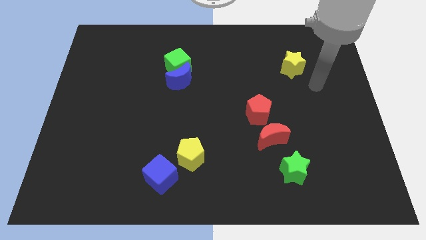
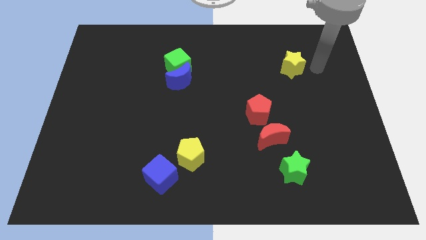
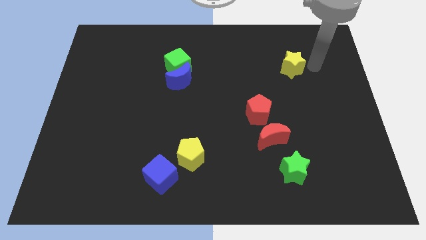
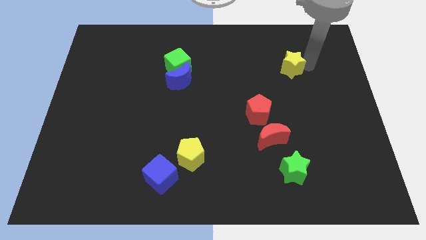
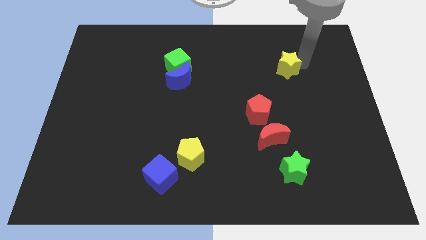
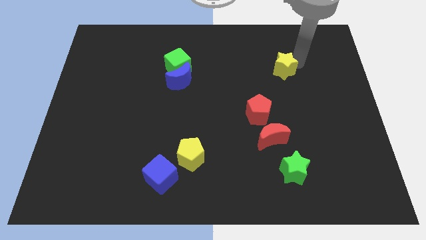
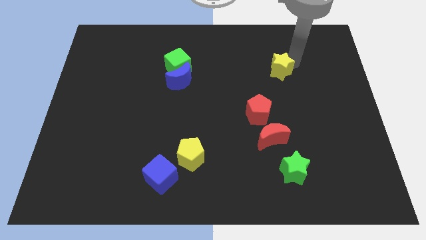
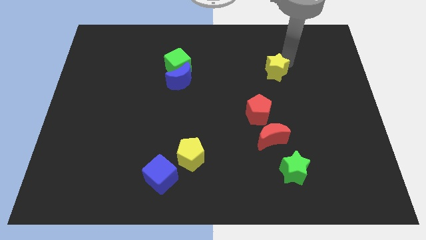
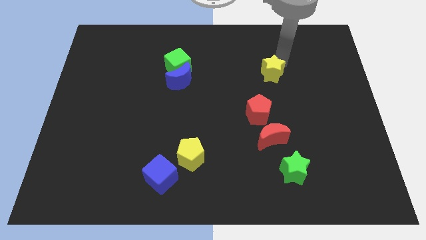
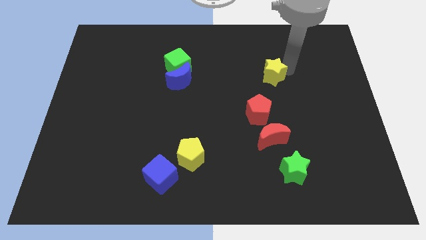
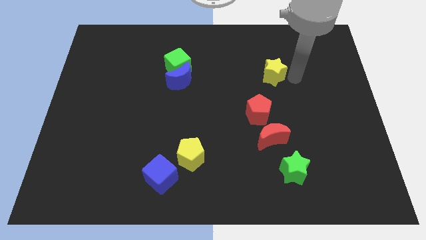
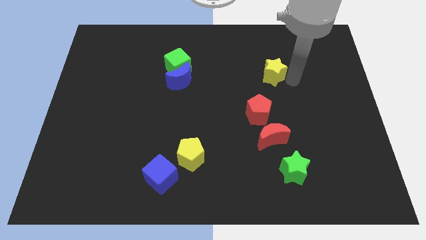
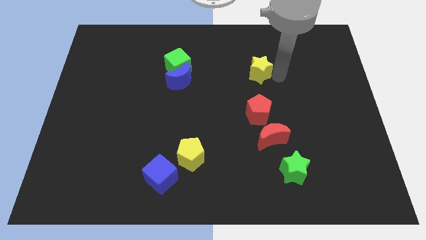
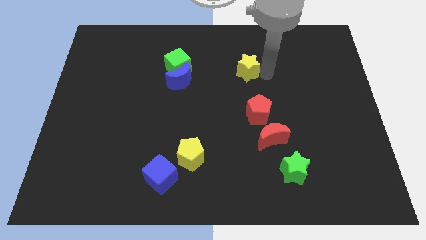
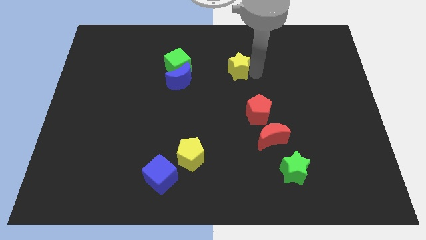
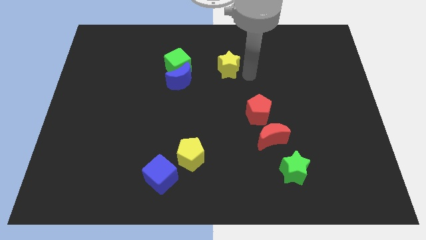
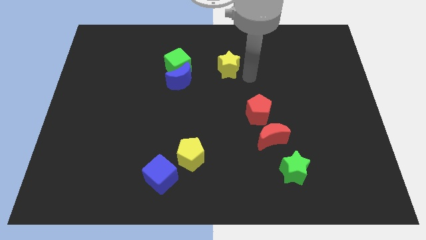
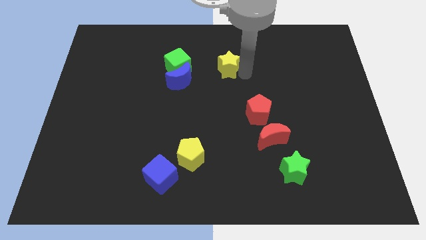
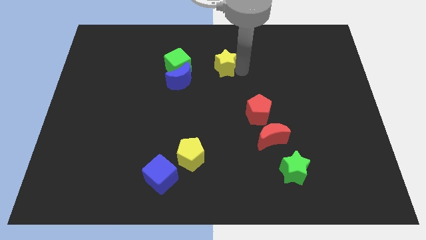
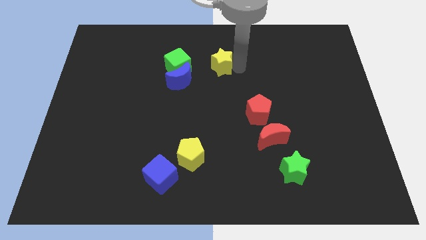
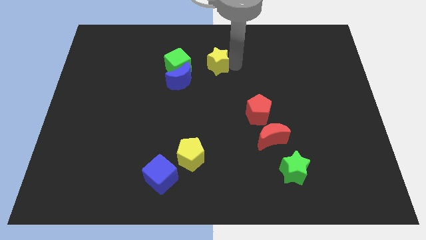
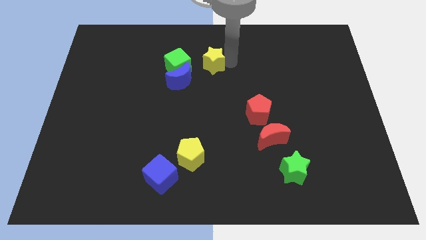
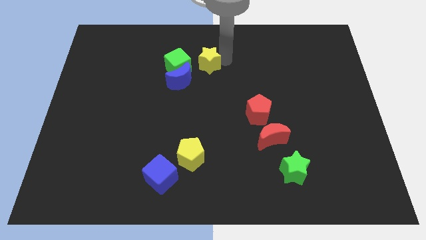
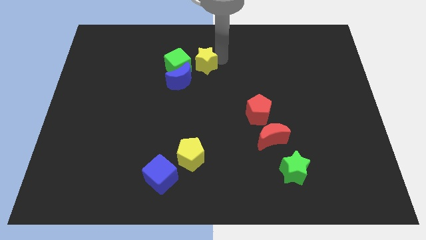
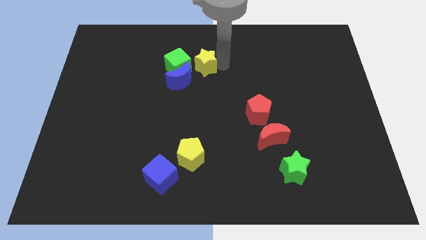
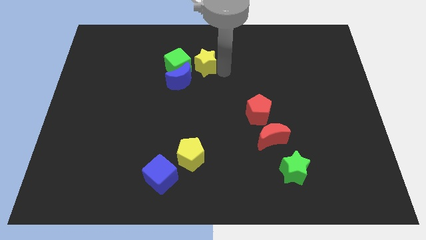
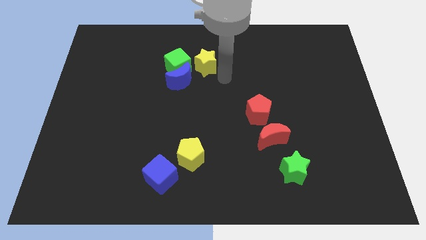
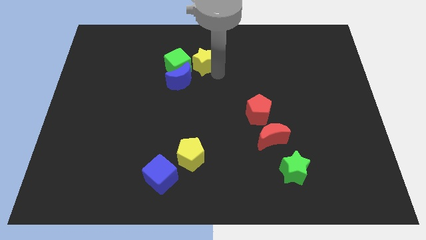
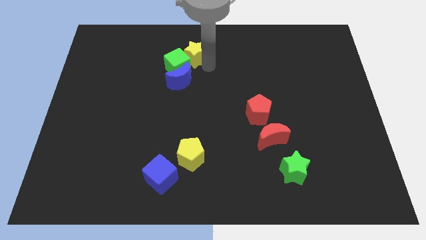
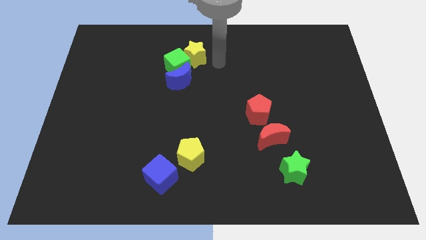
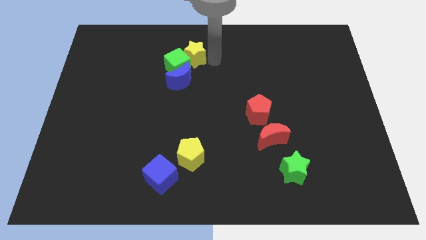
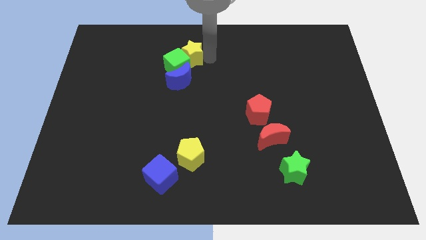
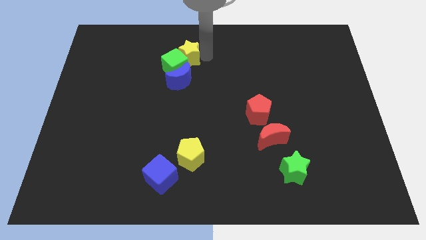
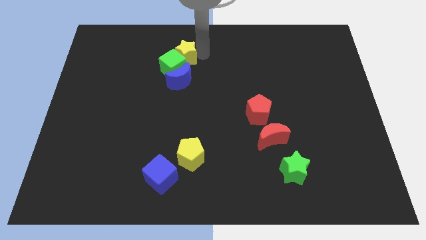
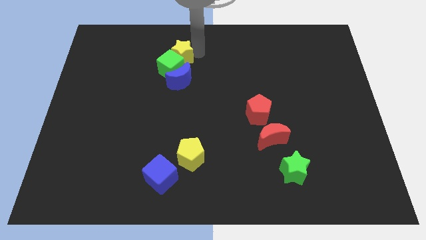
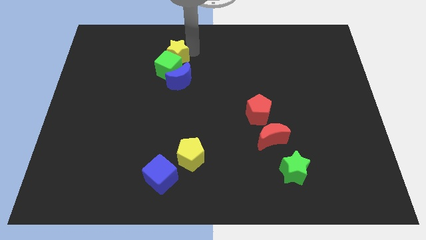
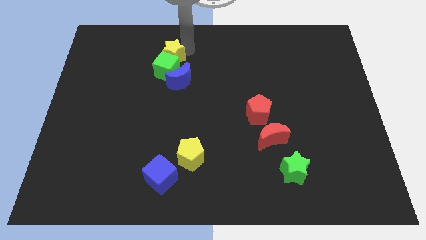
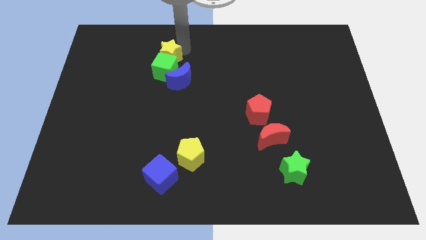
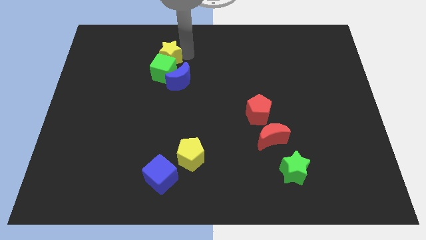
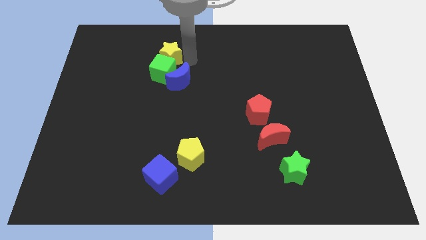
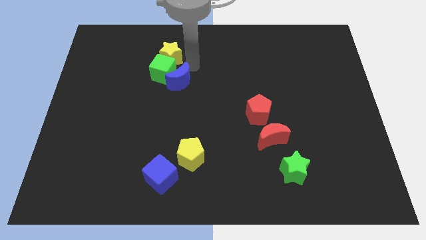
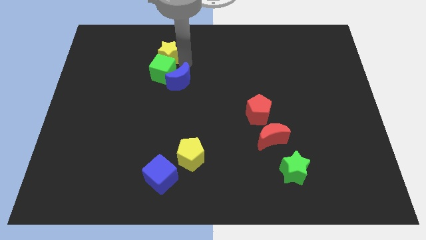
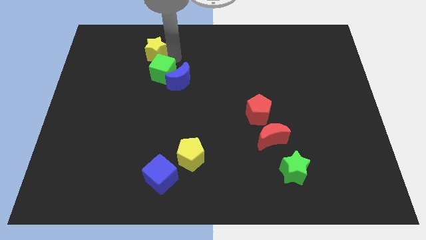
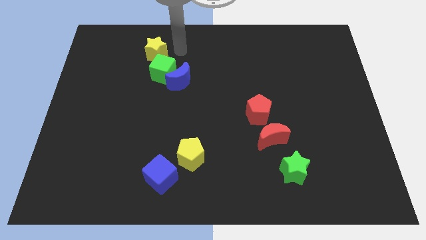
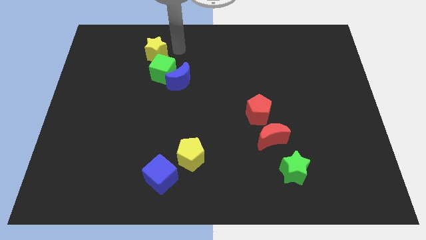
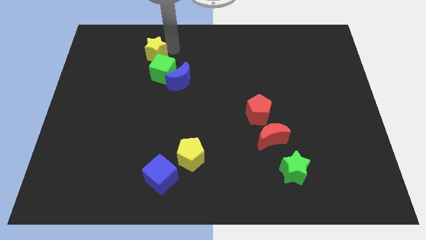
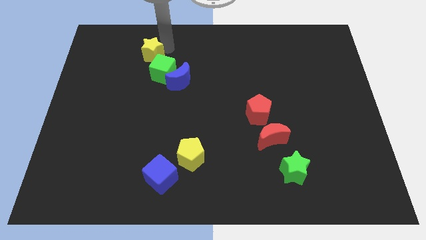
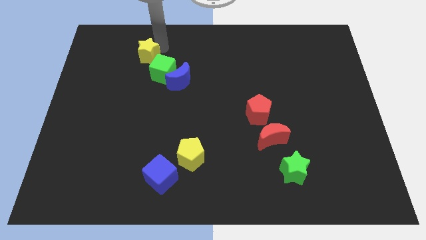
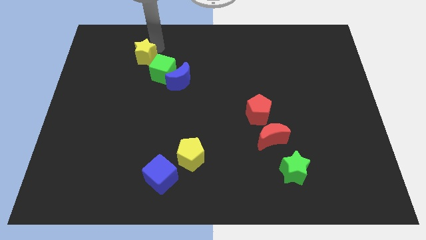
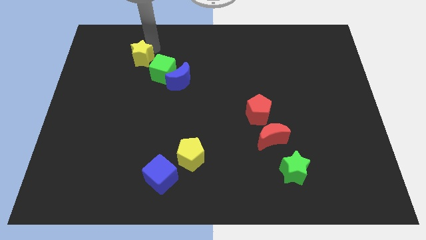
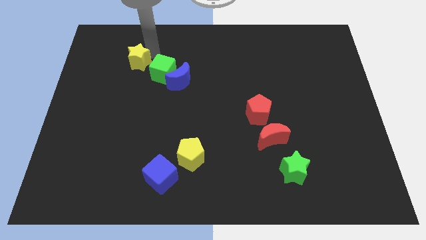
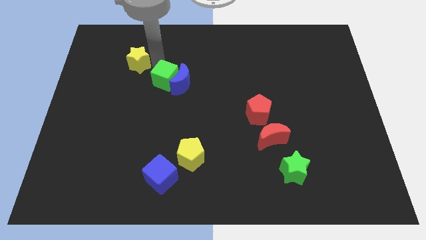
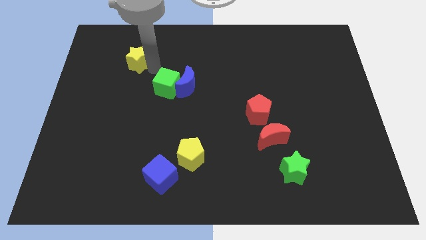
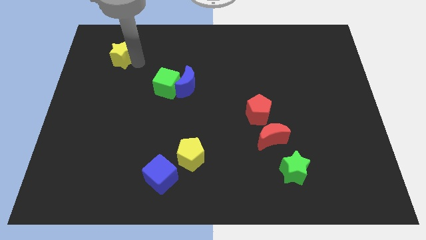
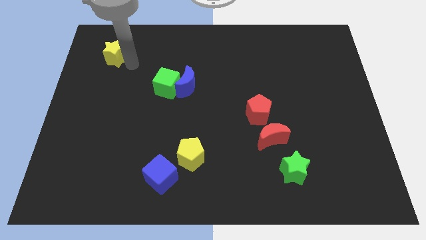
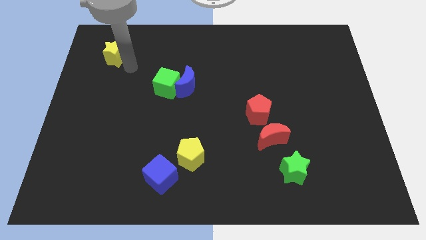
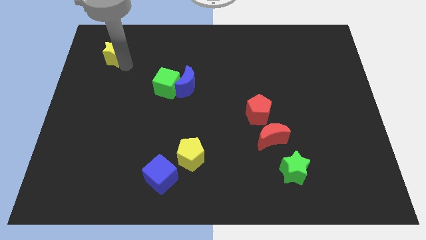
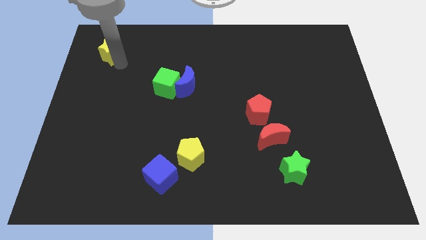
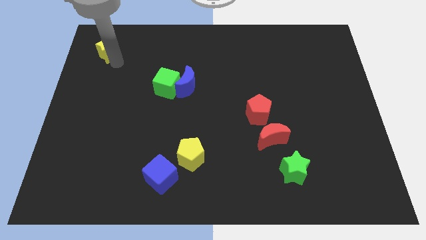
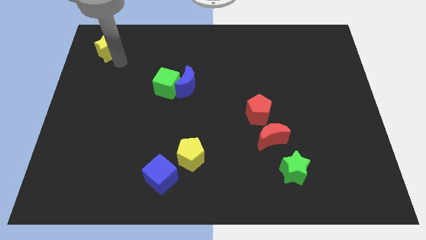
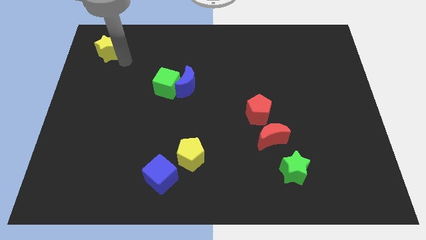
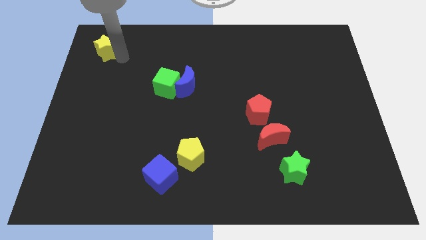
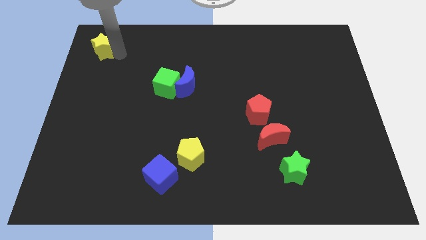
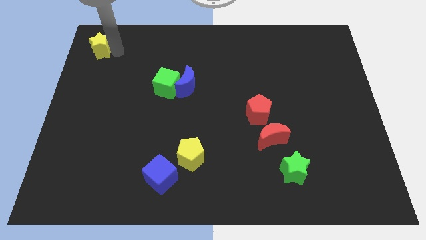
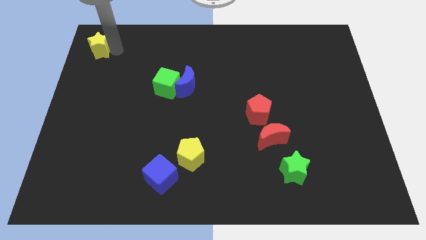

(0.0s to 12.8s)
push the yellow star to the top left of the board
